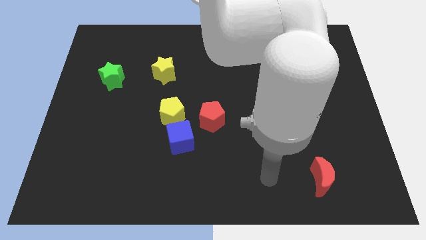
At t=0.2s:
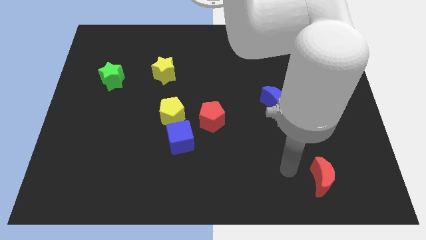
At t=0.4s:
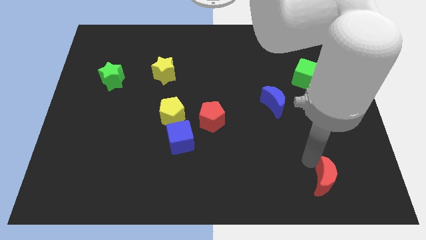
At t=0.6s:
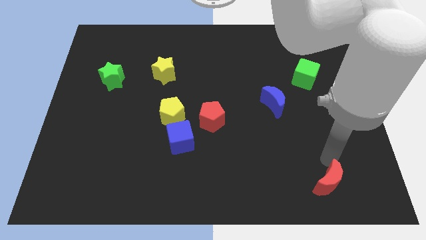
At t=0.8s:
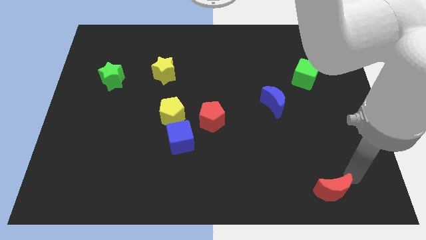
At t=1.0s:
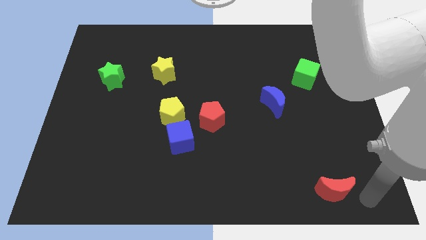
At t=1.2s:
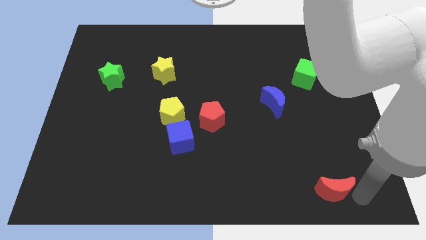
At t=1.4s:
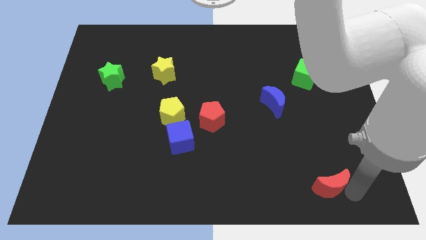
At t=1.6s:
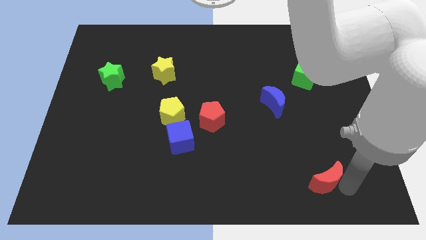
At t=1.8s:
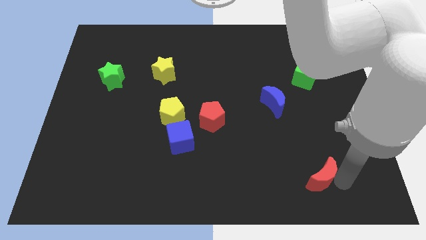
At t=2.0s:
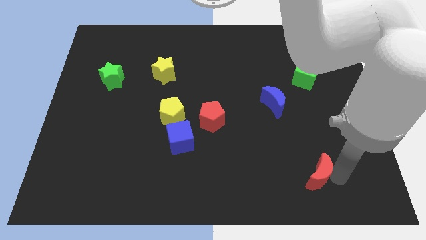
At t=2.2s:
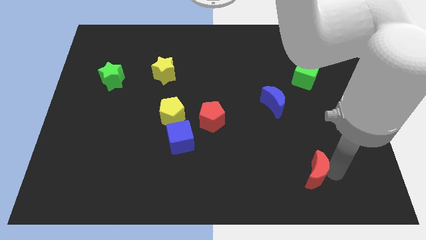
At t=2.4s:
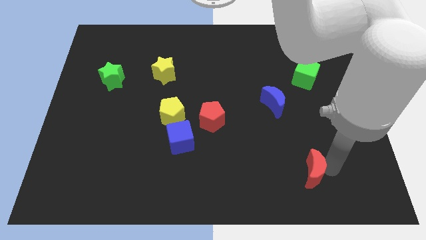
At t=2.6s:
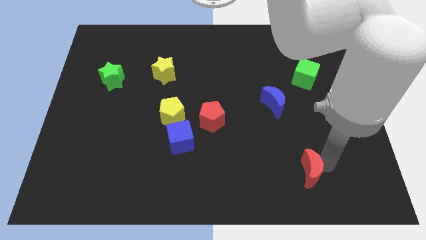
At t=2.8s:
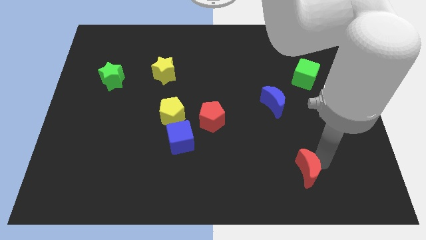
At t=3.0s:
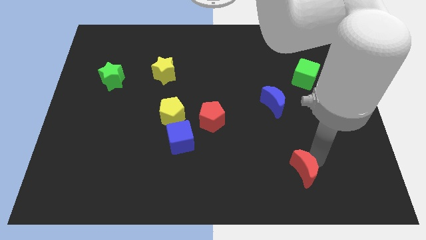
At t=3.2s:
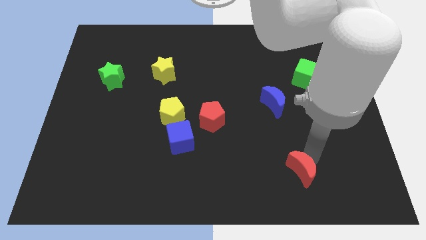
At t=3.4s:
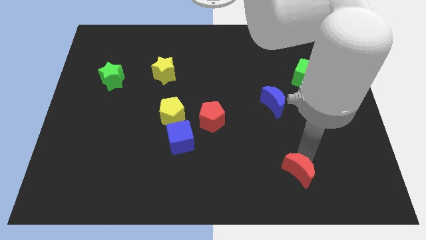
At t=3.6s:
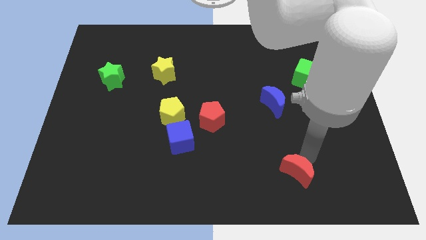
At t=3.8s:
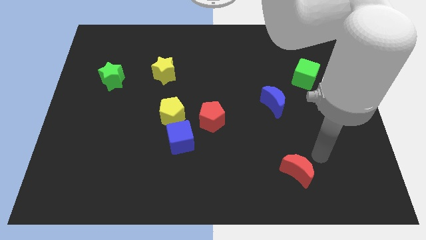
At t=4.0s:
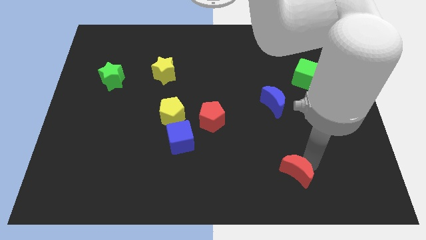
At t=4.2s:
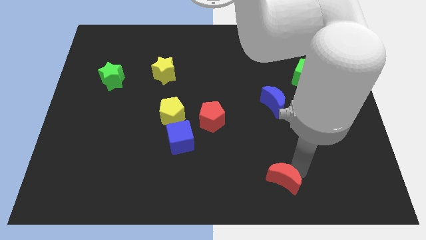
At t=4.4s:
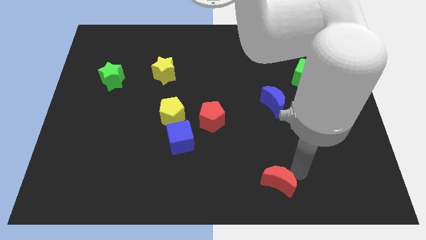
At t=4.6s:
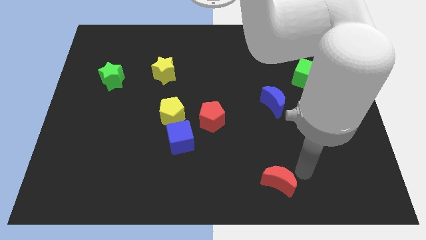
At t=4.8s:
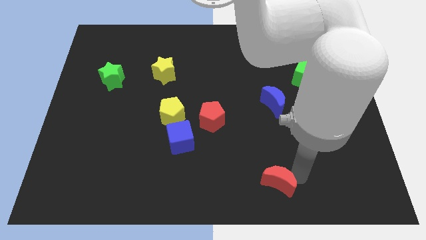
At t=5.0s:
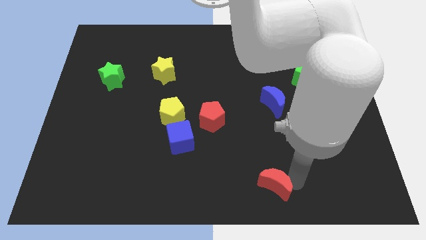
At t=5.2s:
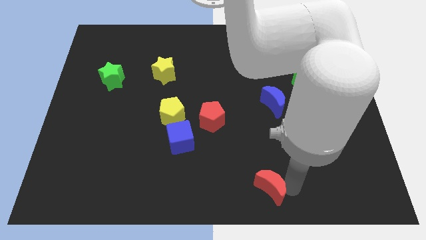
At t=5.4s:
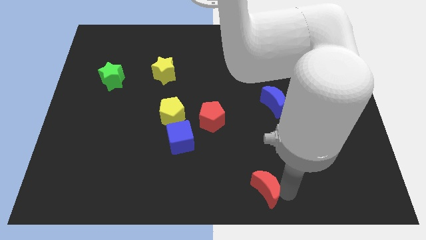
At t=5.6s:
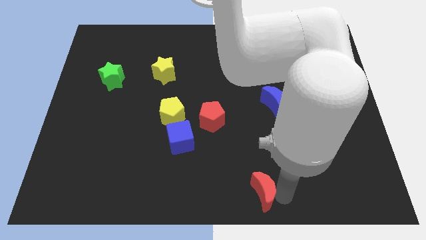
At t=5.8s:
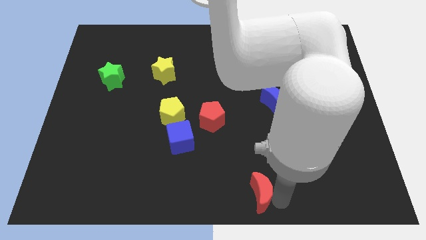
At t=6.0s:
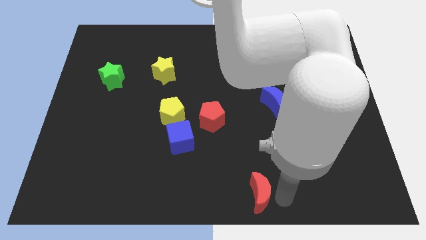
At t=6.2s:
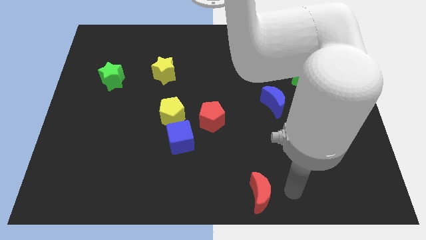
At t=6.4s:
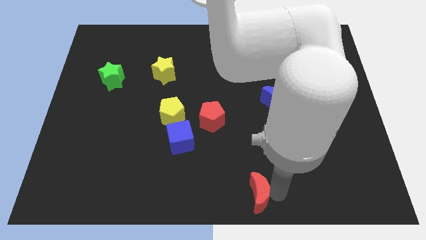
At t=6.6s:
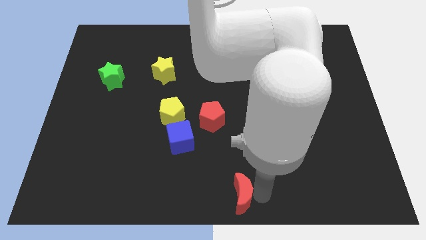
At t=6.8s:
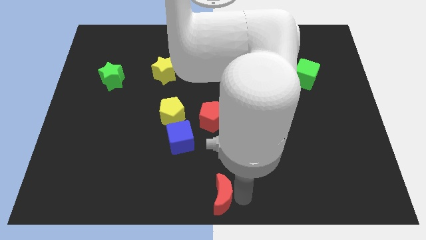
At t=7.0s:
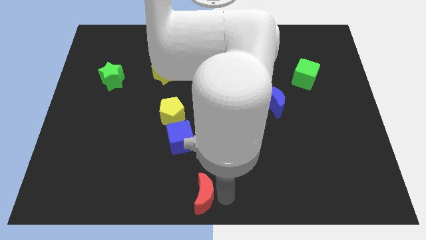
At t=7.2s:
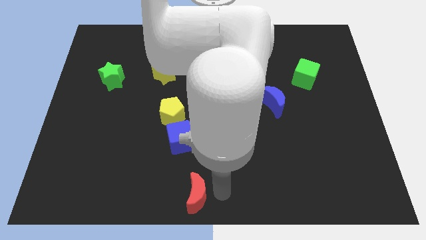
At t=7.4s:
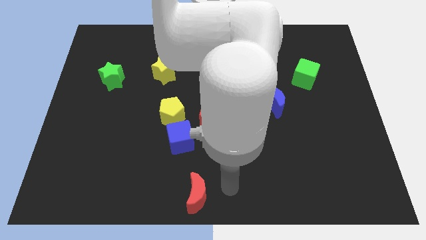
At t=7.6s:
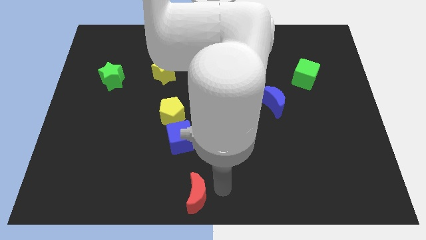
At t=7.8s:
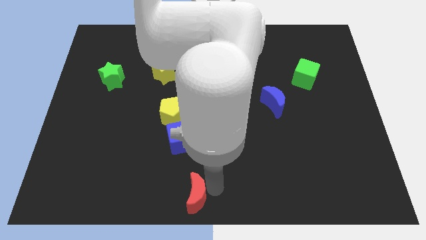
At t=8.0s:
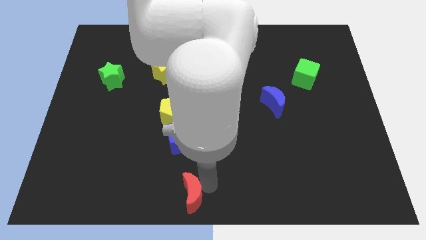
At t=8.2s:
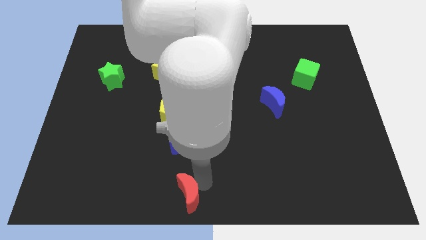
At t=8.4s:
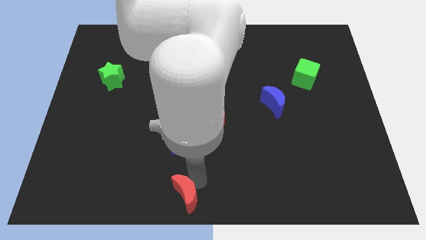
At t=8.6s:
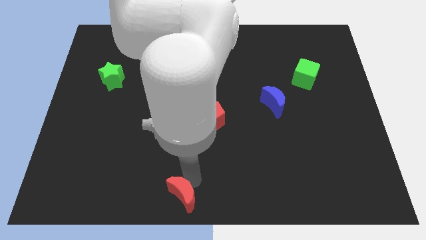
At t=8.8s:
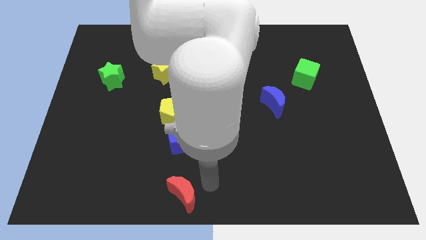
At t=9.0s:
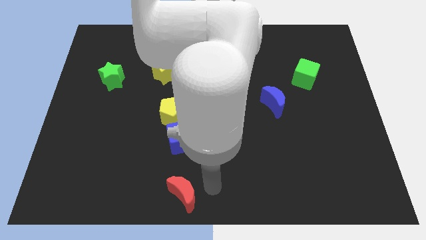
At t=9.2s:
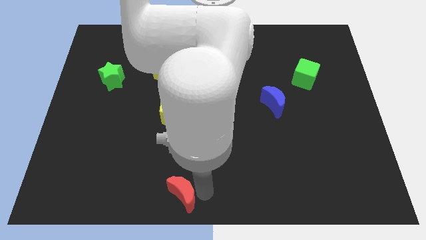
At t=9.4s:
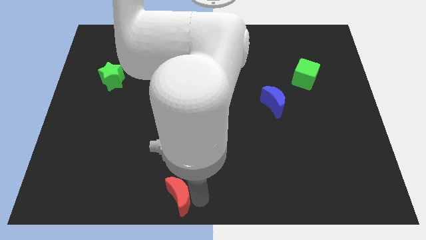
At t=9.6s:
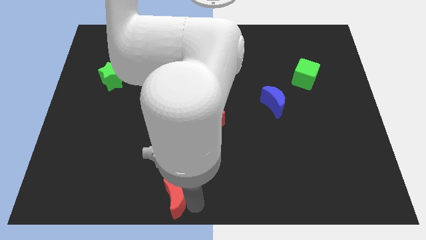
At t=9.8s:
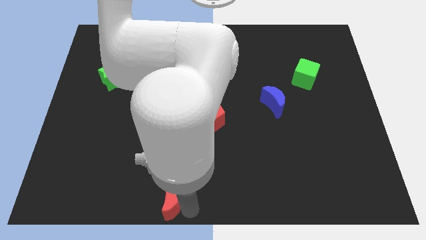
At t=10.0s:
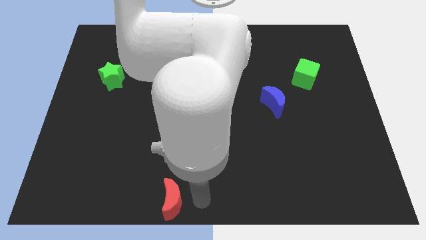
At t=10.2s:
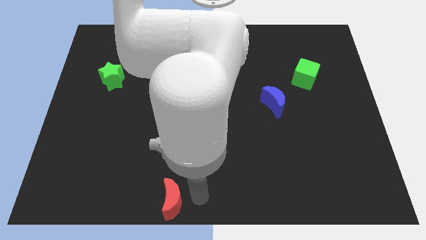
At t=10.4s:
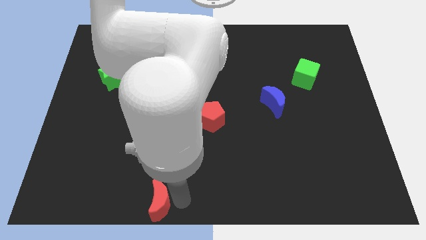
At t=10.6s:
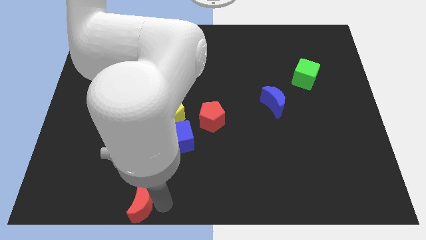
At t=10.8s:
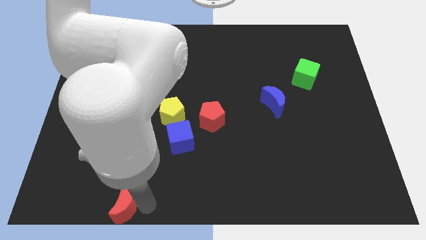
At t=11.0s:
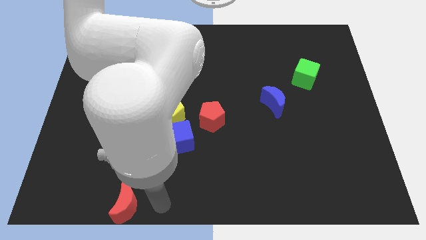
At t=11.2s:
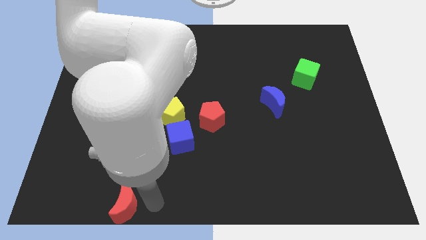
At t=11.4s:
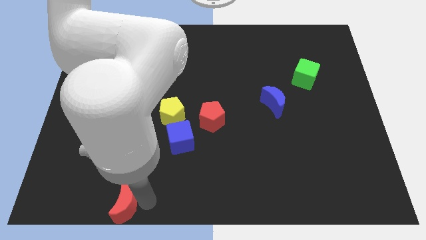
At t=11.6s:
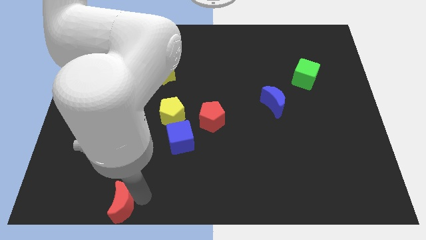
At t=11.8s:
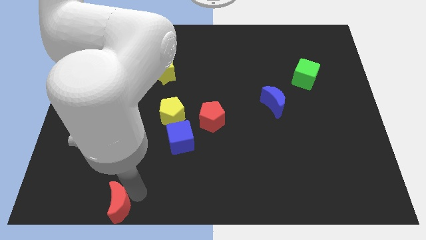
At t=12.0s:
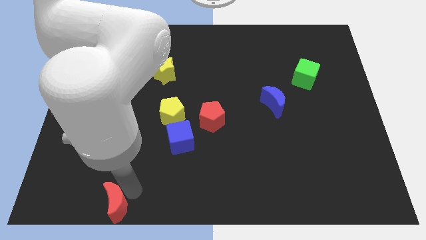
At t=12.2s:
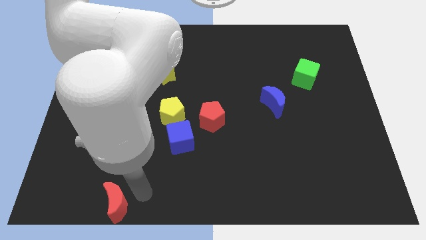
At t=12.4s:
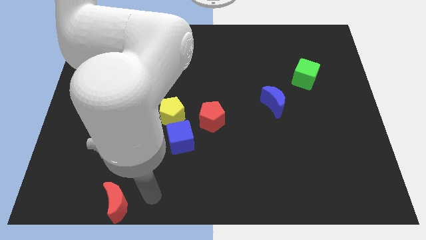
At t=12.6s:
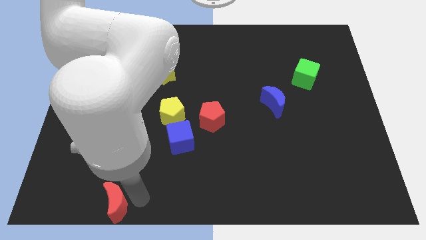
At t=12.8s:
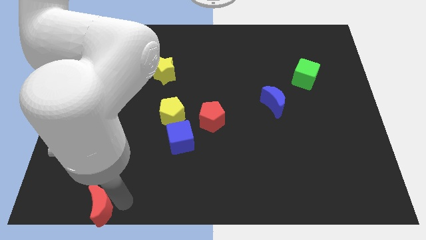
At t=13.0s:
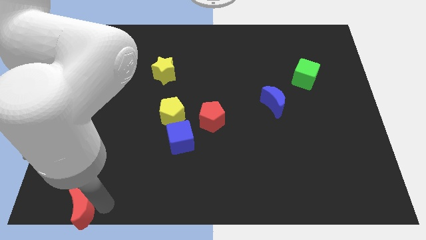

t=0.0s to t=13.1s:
move the red moon to the lower left corner
